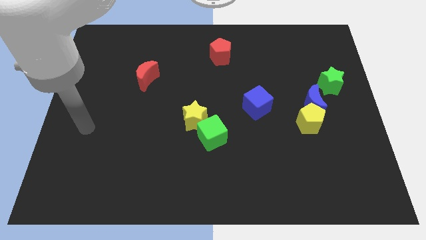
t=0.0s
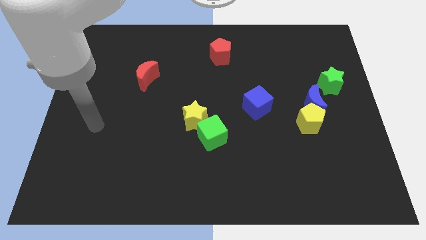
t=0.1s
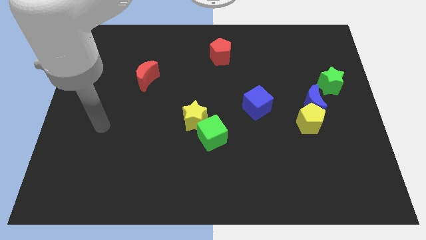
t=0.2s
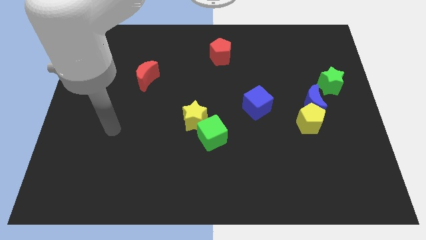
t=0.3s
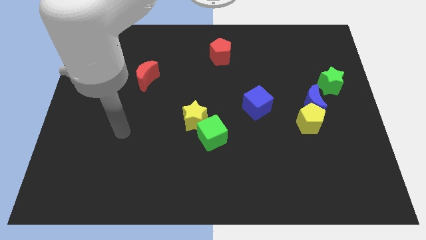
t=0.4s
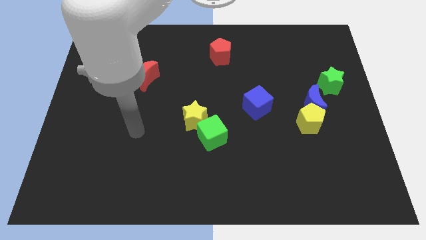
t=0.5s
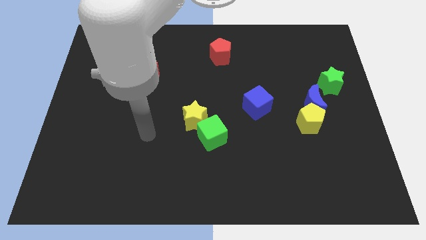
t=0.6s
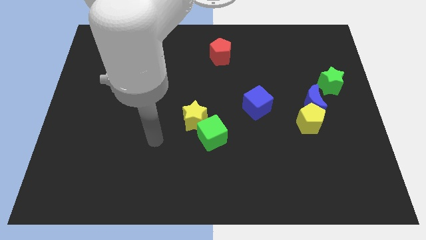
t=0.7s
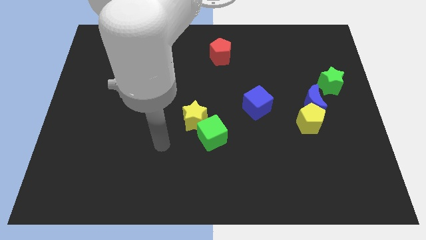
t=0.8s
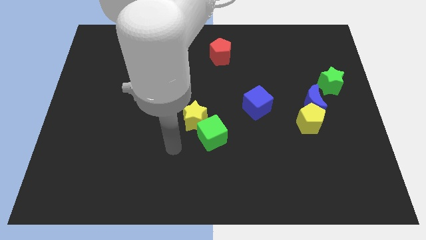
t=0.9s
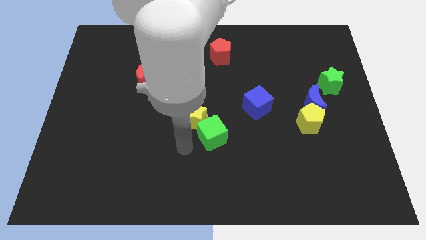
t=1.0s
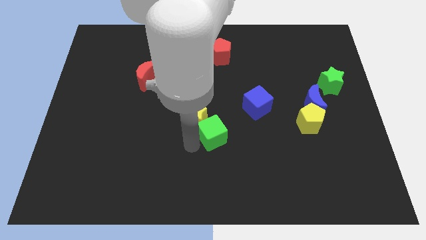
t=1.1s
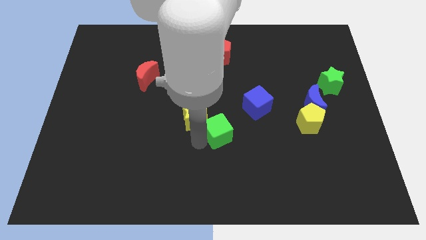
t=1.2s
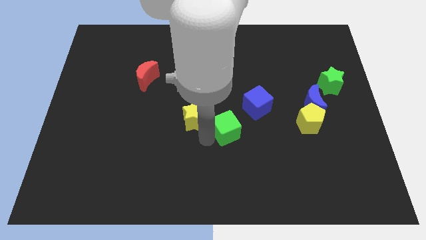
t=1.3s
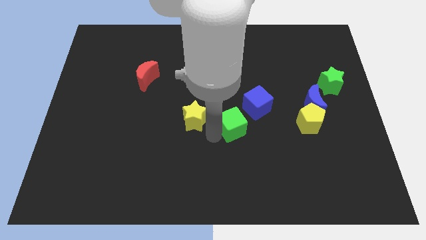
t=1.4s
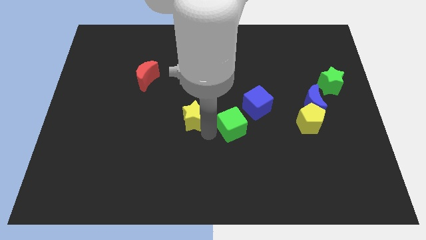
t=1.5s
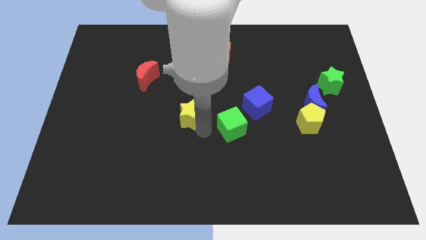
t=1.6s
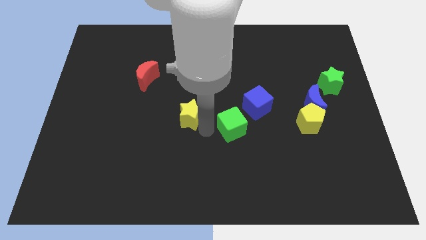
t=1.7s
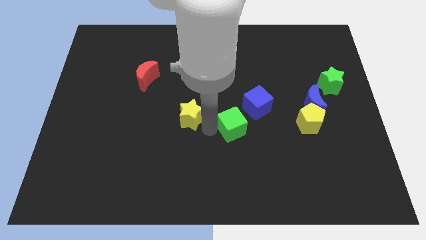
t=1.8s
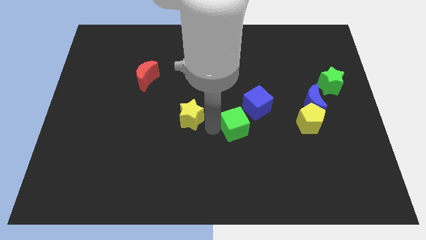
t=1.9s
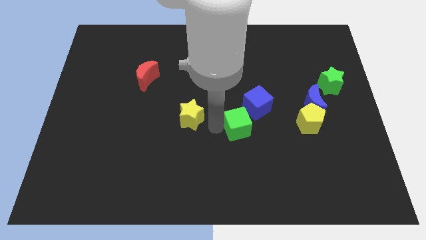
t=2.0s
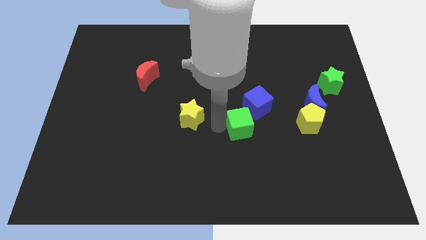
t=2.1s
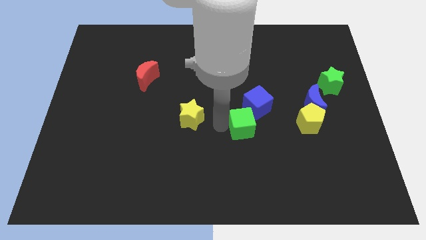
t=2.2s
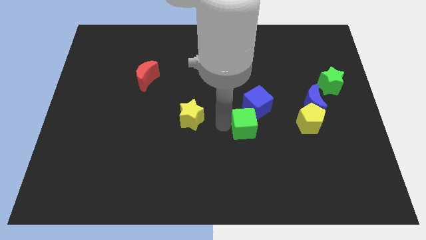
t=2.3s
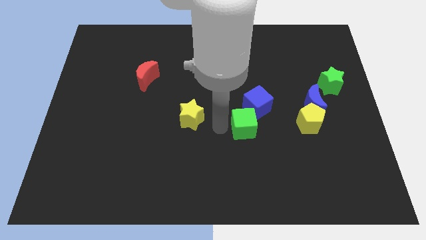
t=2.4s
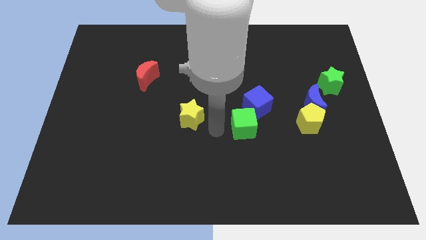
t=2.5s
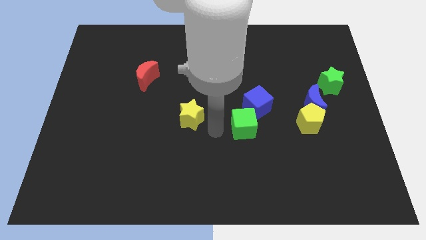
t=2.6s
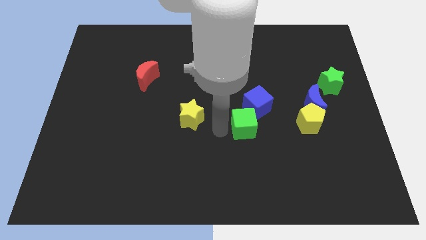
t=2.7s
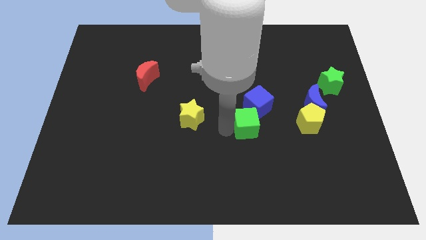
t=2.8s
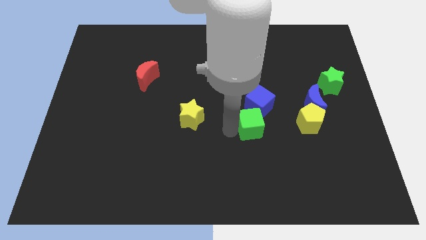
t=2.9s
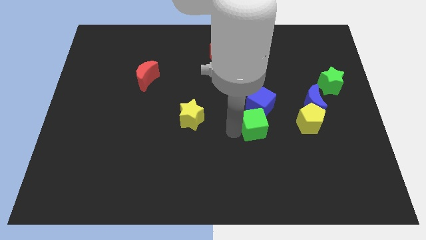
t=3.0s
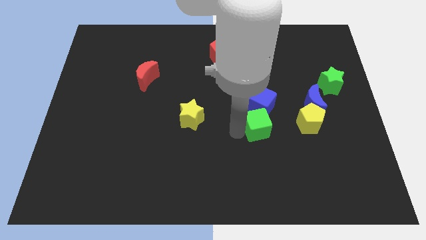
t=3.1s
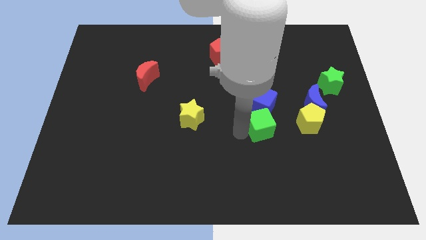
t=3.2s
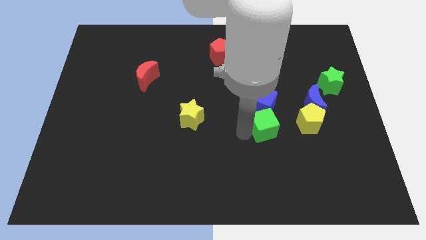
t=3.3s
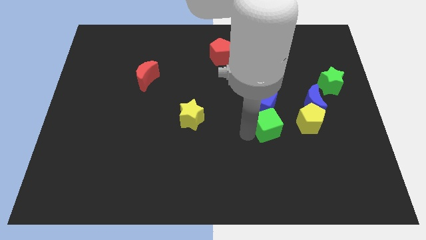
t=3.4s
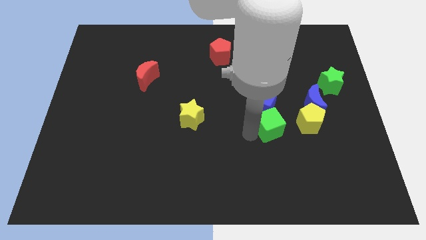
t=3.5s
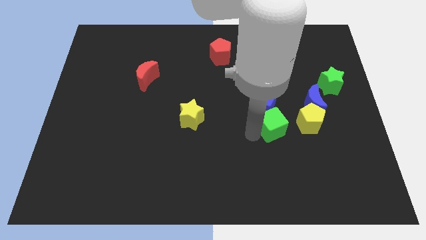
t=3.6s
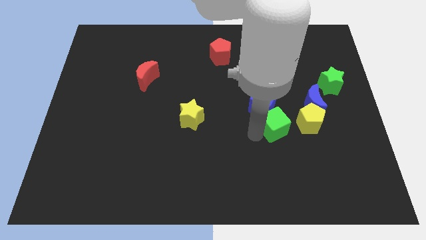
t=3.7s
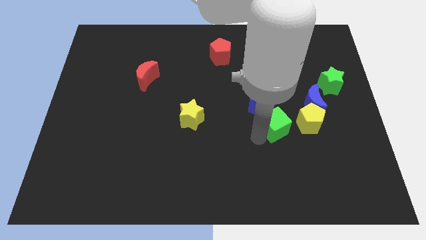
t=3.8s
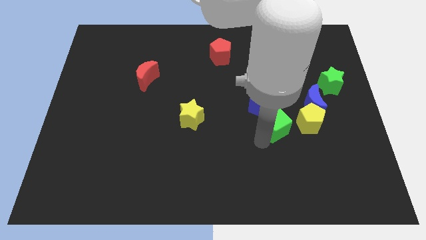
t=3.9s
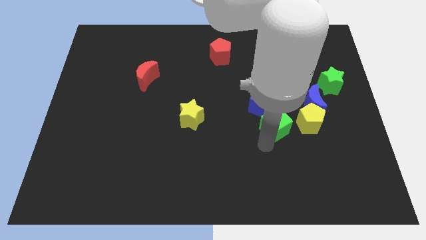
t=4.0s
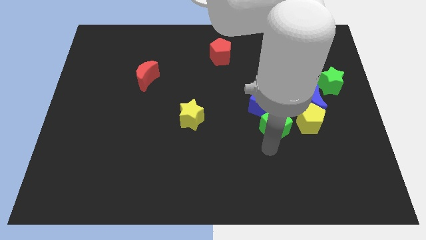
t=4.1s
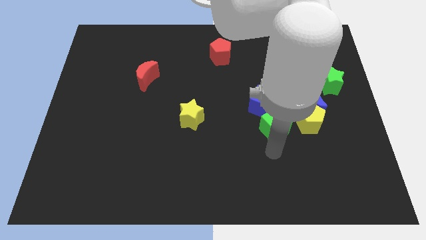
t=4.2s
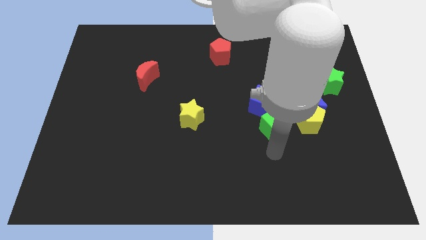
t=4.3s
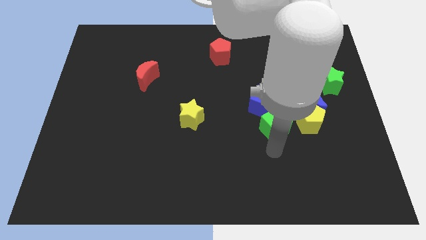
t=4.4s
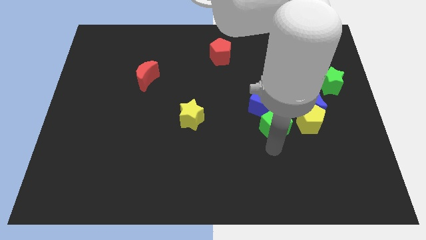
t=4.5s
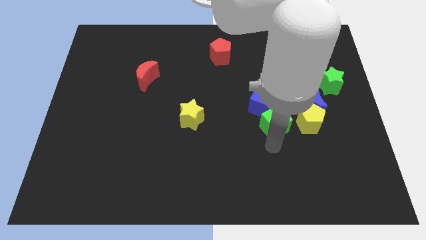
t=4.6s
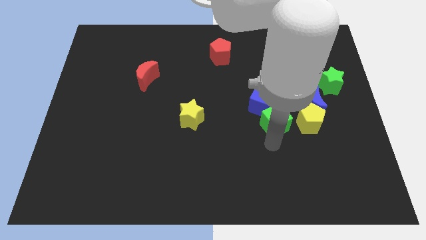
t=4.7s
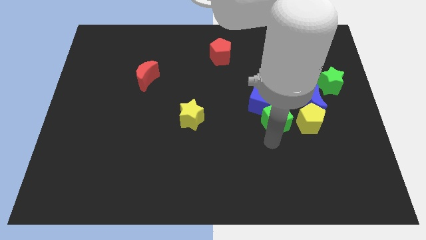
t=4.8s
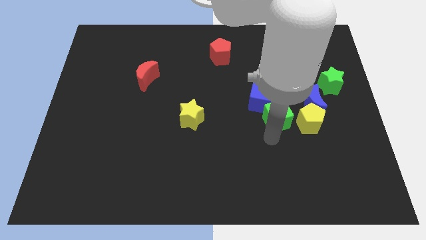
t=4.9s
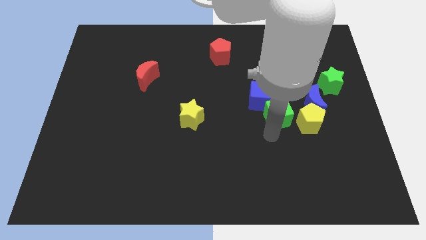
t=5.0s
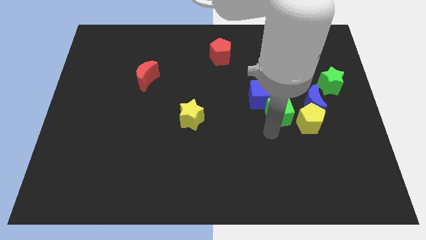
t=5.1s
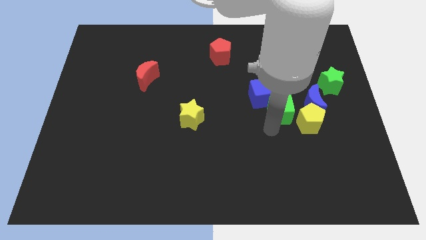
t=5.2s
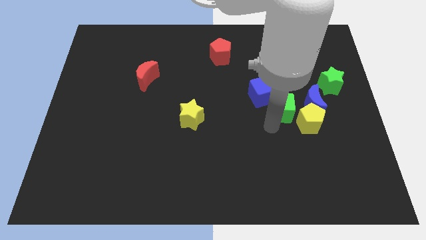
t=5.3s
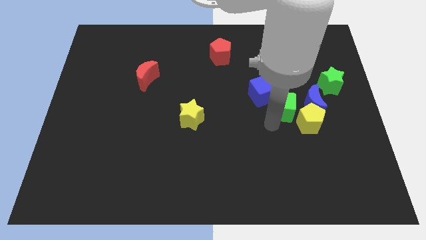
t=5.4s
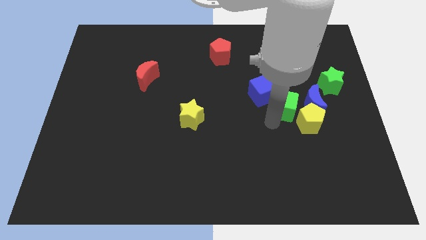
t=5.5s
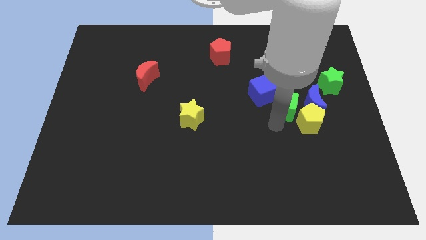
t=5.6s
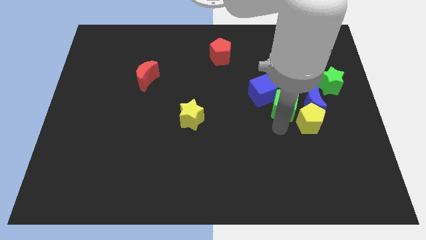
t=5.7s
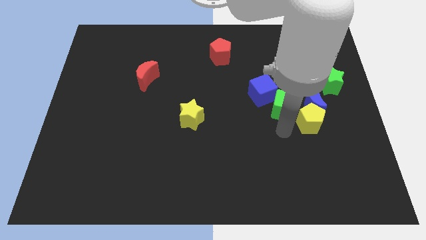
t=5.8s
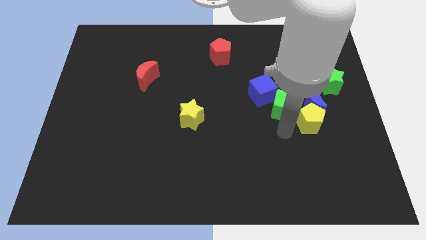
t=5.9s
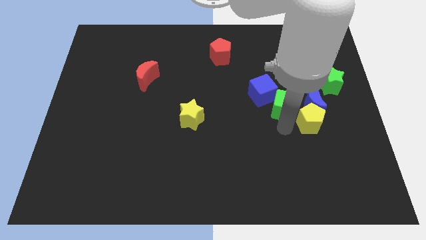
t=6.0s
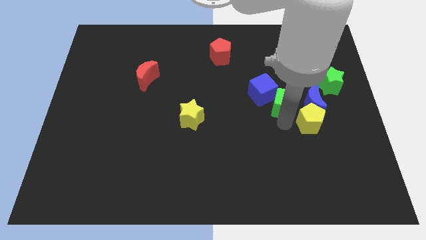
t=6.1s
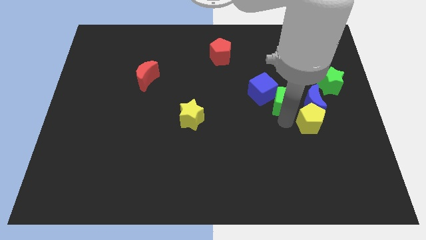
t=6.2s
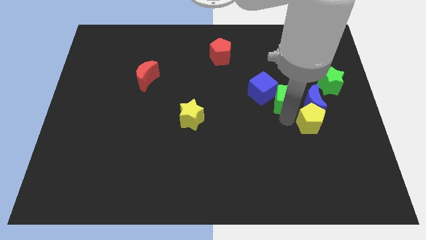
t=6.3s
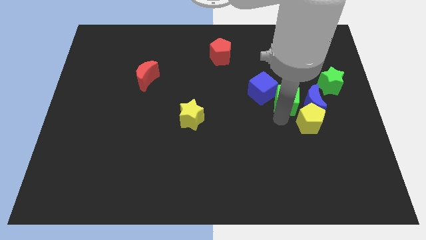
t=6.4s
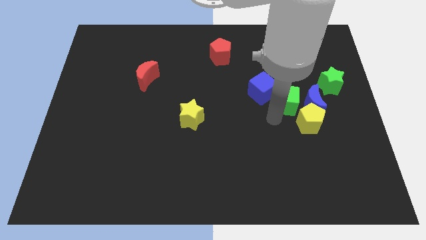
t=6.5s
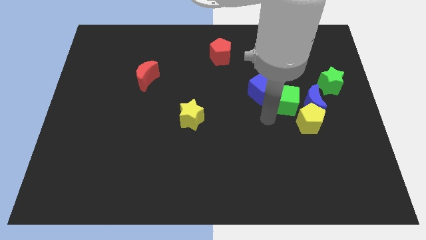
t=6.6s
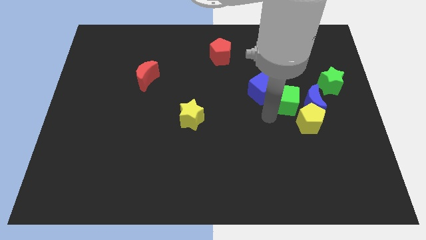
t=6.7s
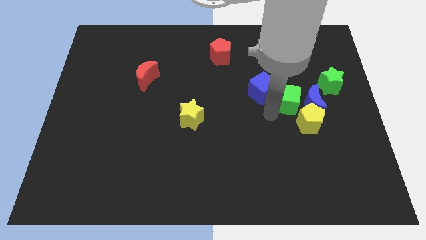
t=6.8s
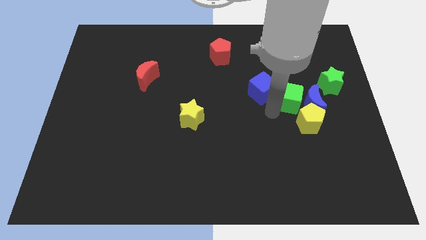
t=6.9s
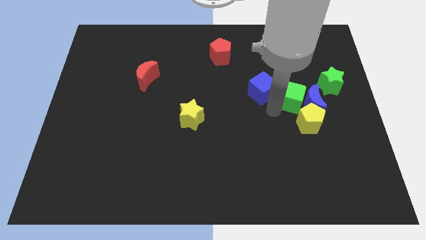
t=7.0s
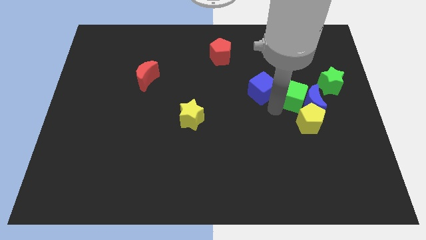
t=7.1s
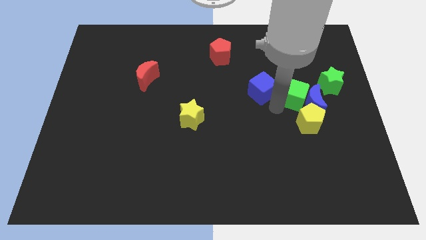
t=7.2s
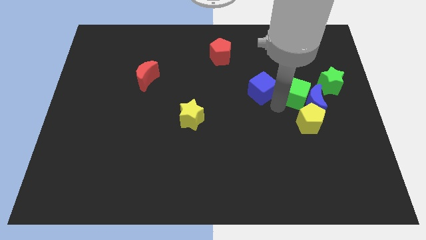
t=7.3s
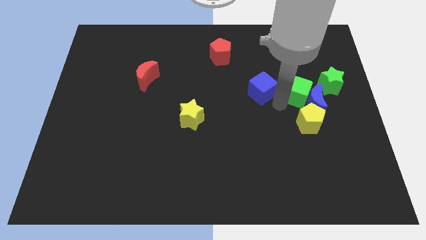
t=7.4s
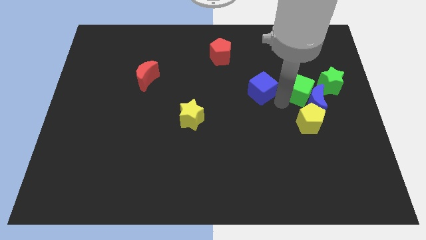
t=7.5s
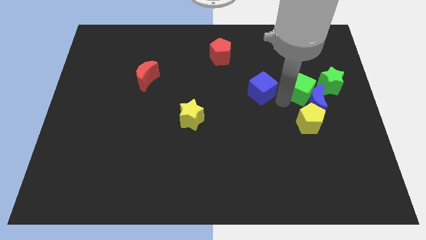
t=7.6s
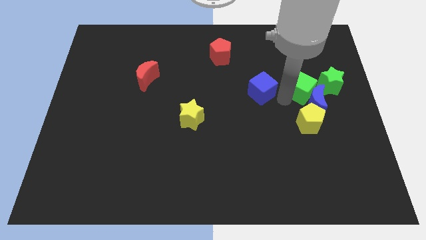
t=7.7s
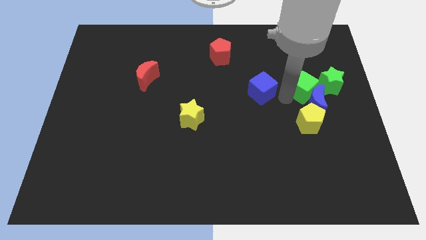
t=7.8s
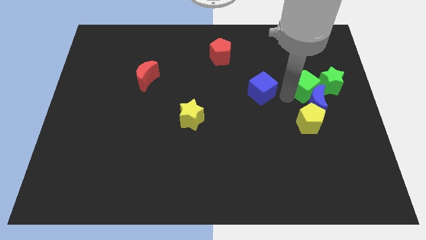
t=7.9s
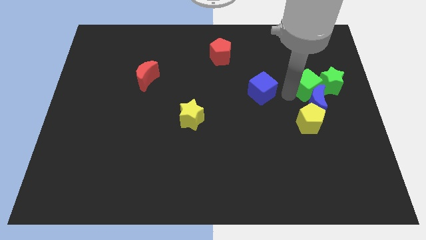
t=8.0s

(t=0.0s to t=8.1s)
put the green cube close to the green star
